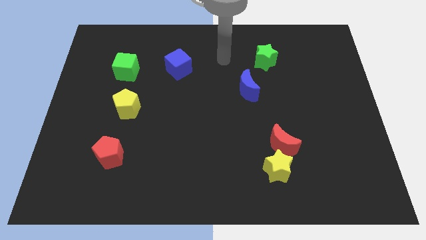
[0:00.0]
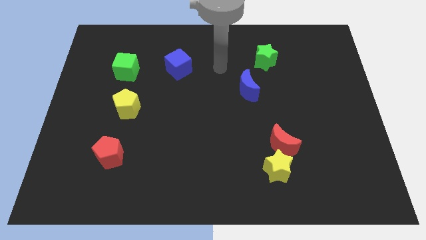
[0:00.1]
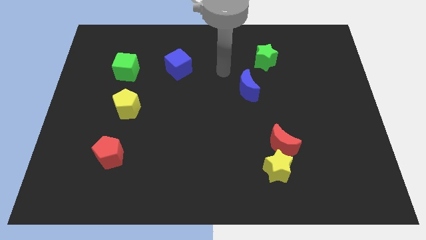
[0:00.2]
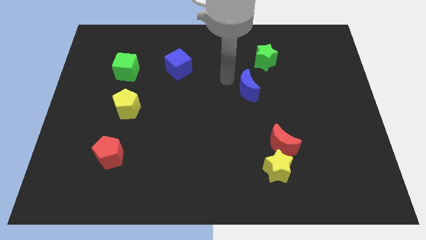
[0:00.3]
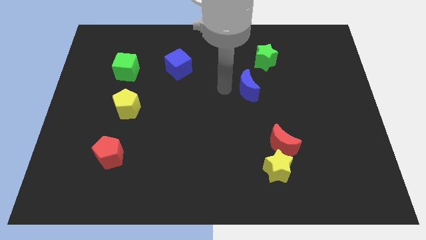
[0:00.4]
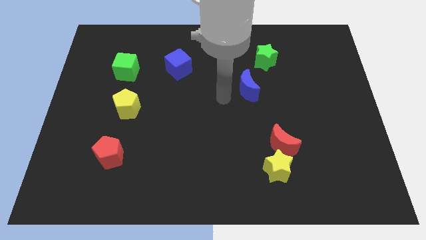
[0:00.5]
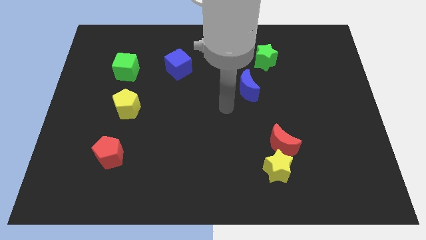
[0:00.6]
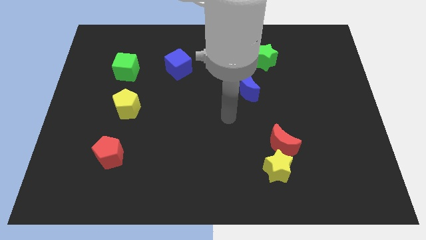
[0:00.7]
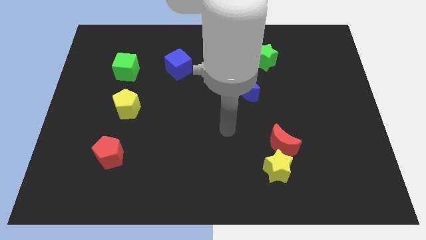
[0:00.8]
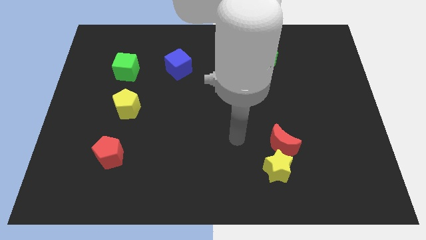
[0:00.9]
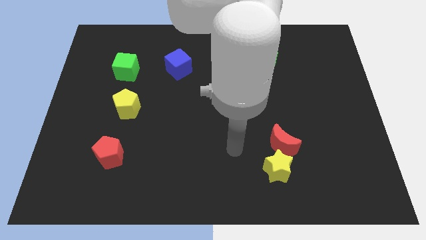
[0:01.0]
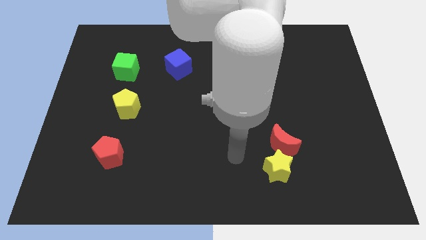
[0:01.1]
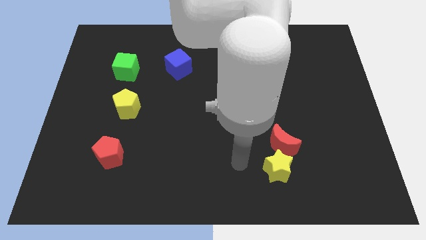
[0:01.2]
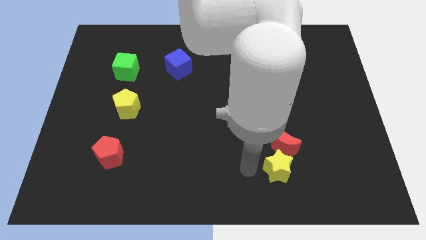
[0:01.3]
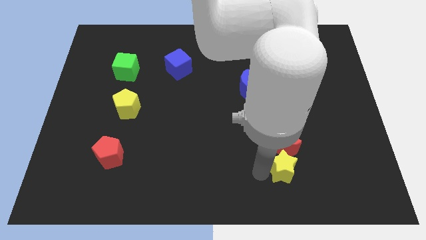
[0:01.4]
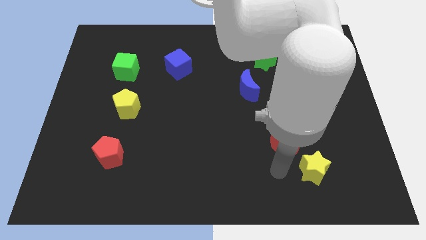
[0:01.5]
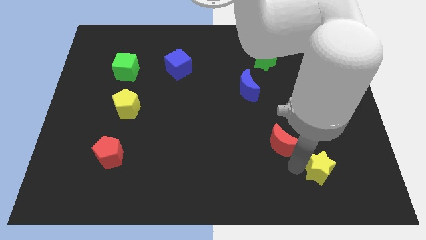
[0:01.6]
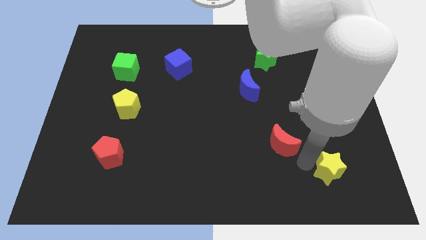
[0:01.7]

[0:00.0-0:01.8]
separate the red moon from the yellow star

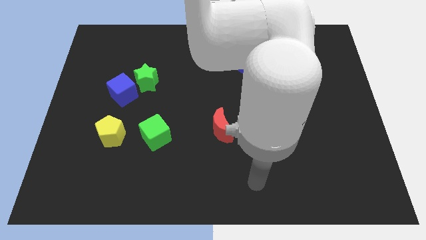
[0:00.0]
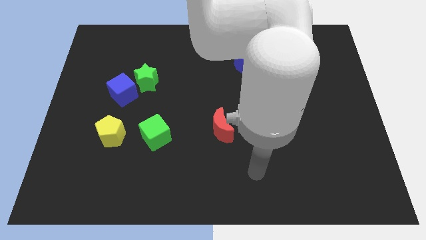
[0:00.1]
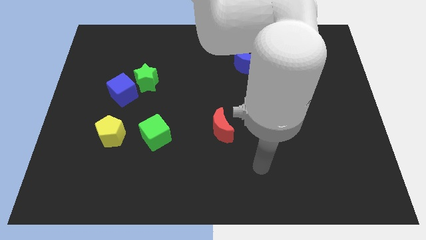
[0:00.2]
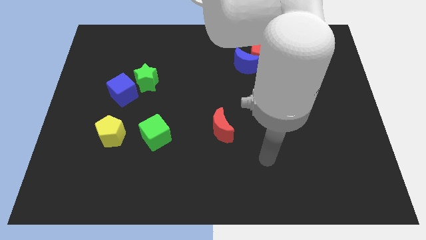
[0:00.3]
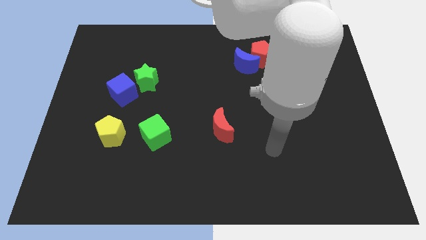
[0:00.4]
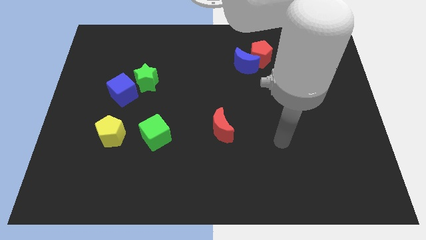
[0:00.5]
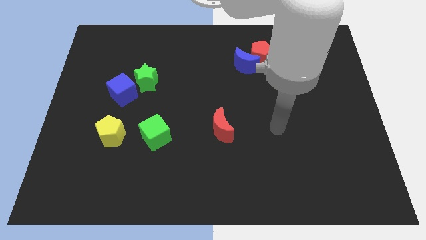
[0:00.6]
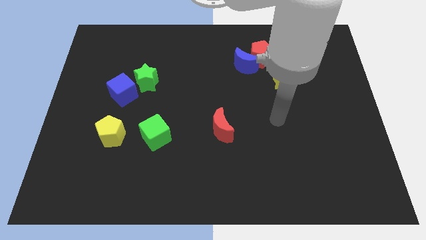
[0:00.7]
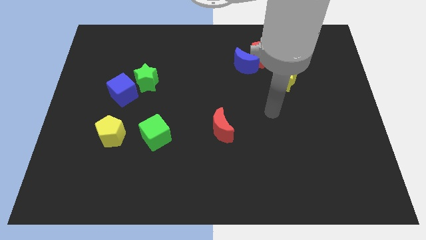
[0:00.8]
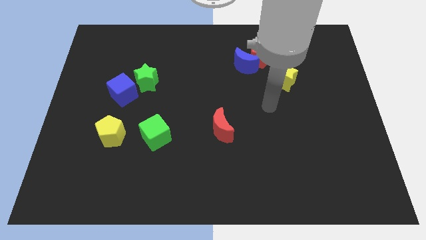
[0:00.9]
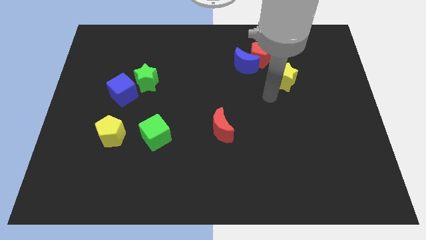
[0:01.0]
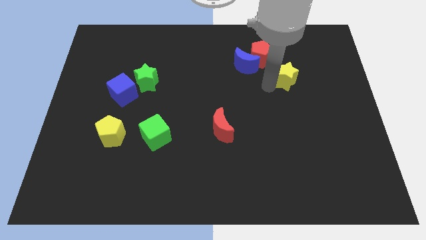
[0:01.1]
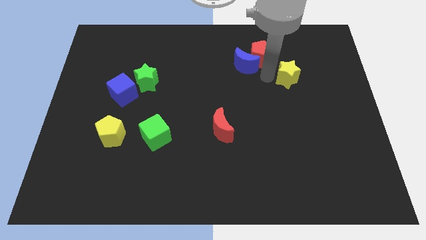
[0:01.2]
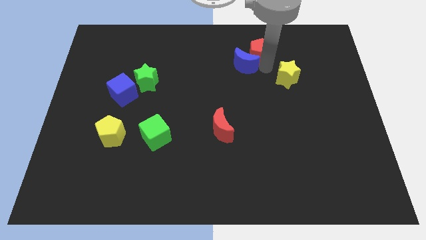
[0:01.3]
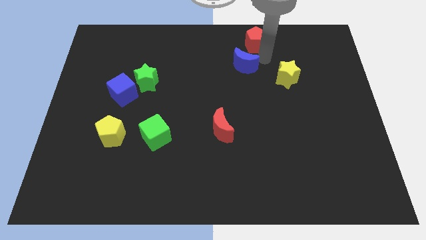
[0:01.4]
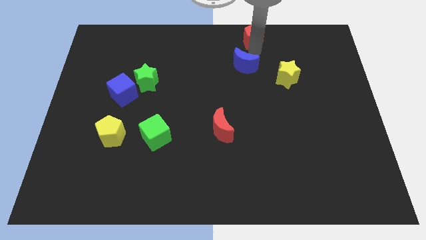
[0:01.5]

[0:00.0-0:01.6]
pull the blue moon apart from the red pentagon

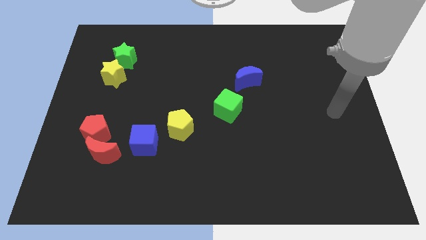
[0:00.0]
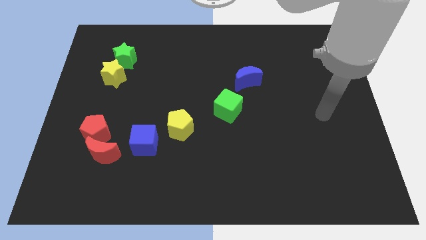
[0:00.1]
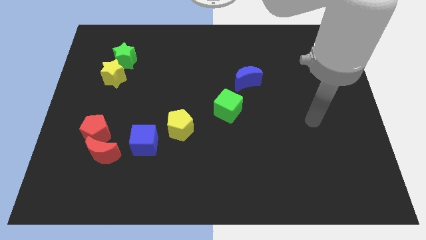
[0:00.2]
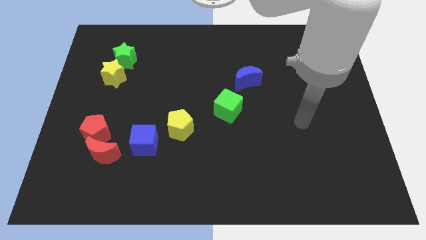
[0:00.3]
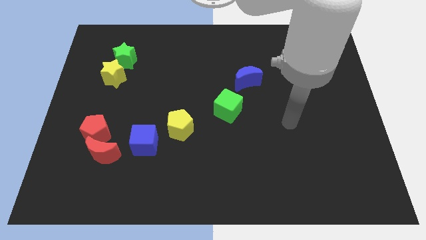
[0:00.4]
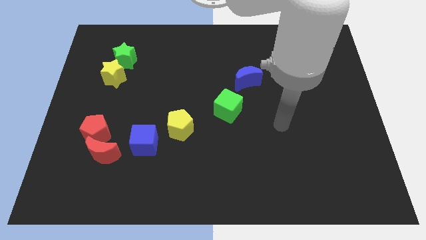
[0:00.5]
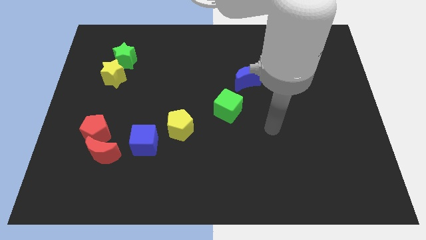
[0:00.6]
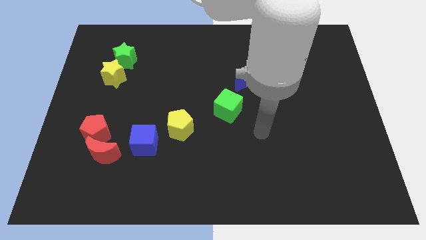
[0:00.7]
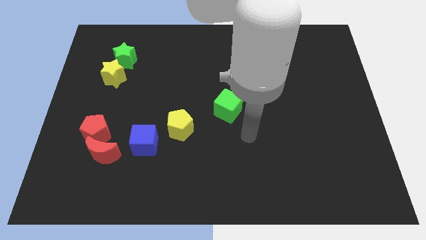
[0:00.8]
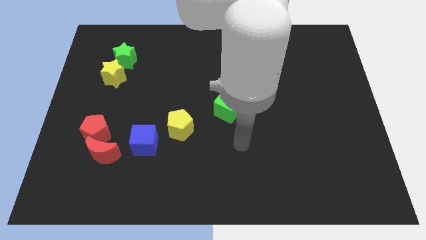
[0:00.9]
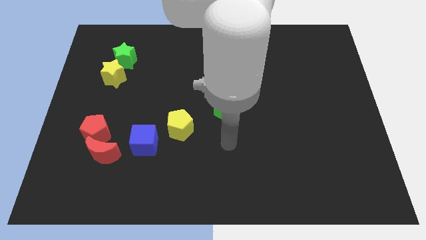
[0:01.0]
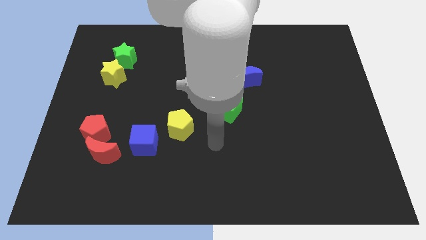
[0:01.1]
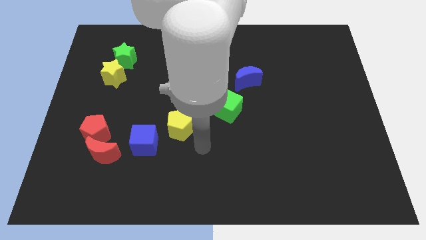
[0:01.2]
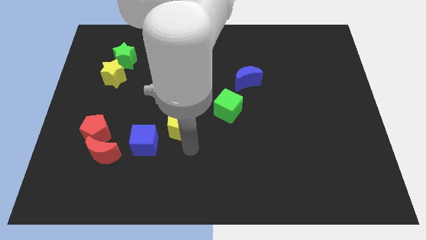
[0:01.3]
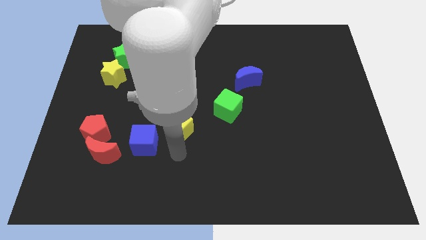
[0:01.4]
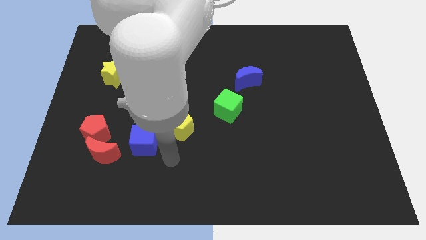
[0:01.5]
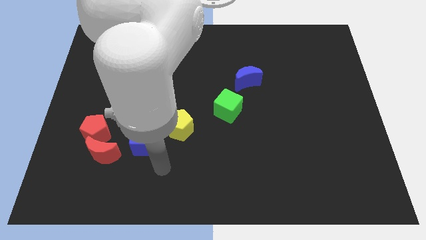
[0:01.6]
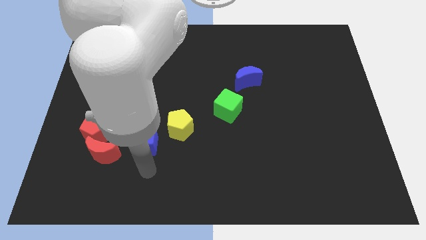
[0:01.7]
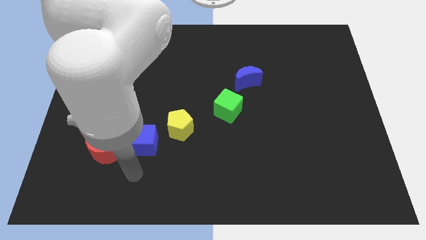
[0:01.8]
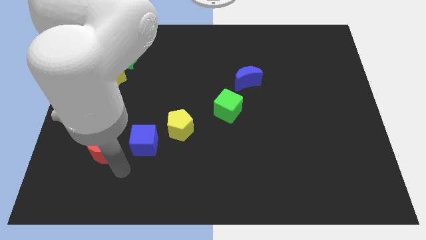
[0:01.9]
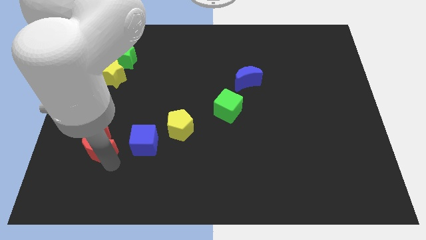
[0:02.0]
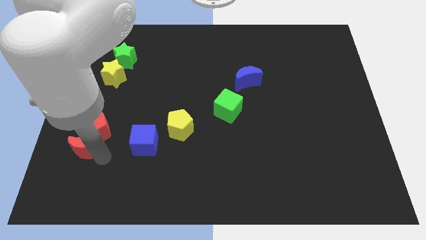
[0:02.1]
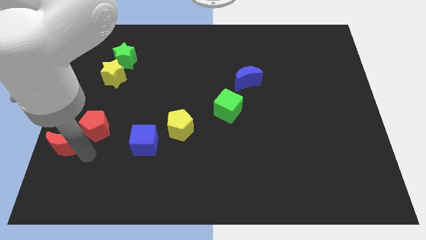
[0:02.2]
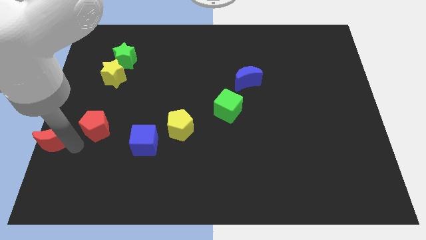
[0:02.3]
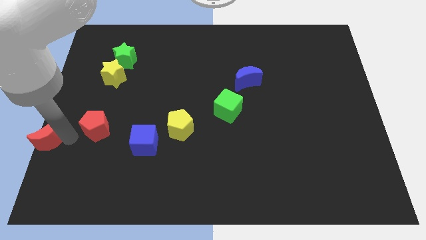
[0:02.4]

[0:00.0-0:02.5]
separate the red pentagon from the red moon

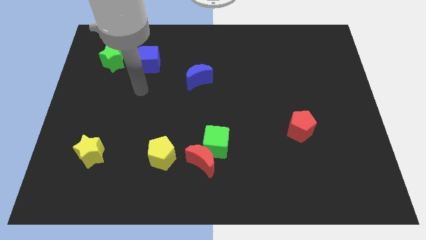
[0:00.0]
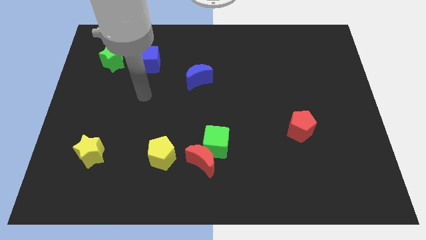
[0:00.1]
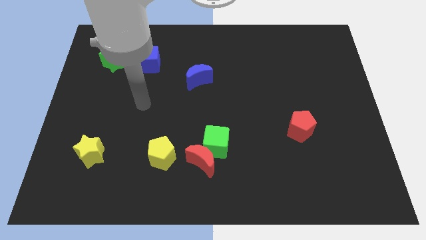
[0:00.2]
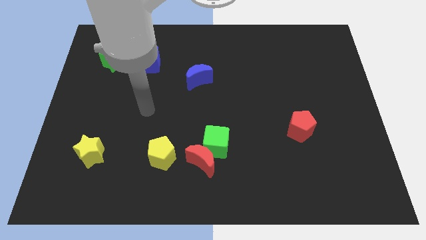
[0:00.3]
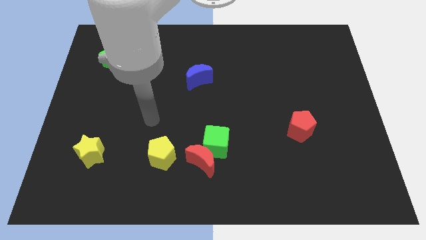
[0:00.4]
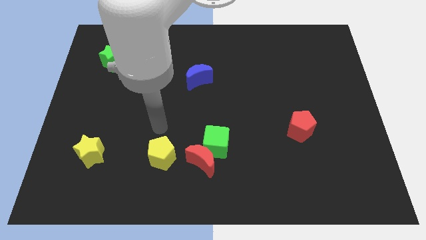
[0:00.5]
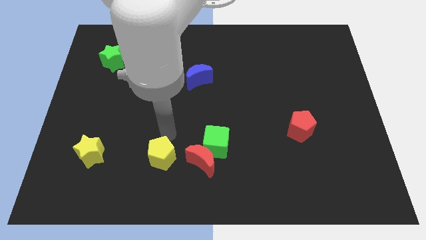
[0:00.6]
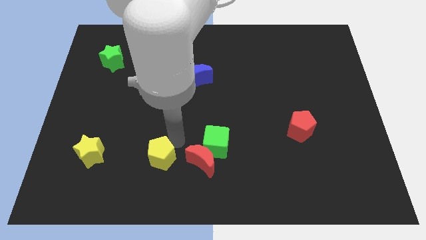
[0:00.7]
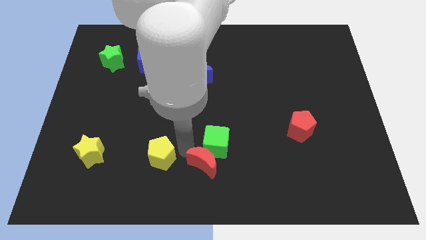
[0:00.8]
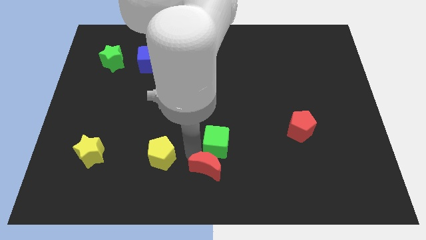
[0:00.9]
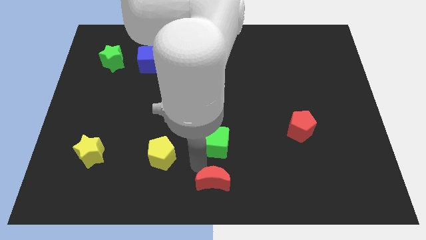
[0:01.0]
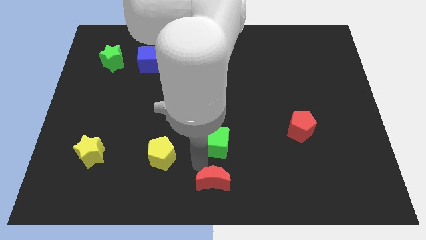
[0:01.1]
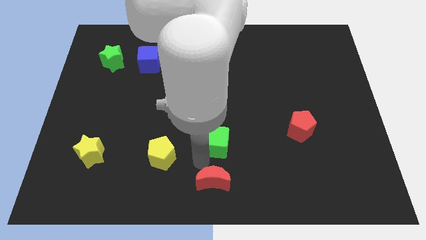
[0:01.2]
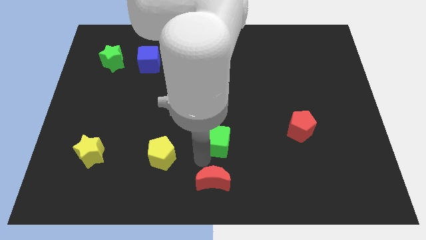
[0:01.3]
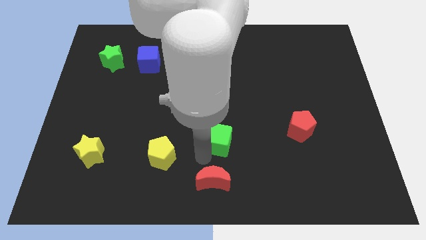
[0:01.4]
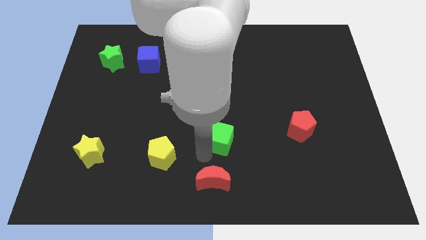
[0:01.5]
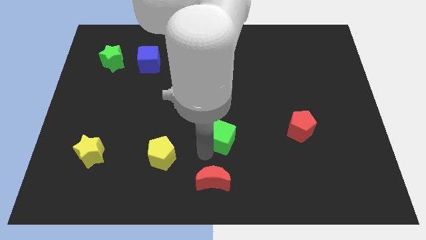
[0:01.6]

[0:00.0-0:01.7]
move the green cube away from the red moon

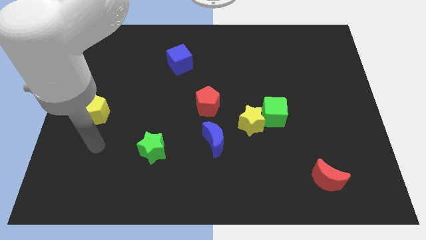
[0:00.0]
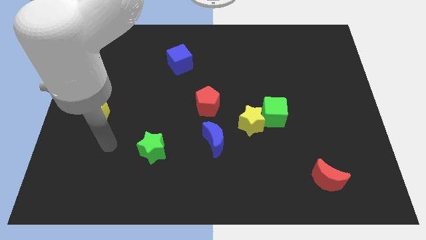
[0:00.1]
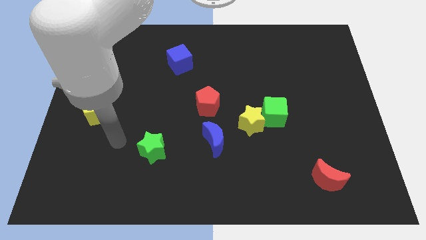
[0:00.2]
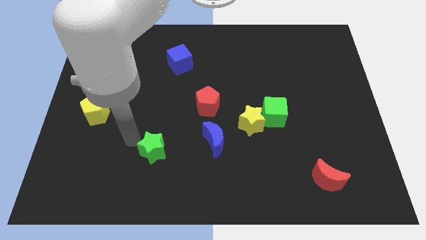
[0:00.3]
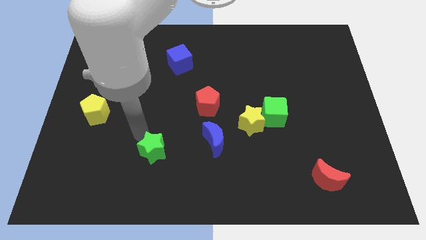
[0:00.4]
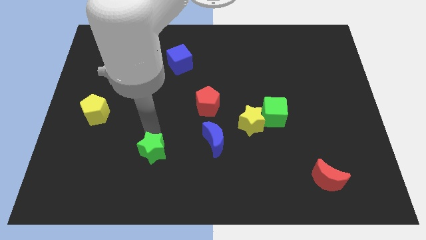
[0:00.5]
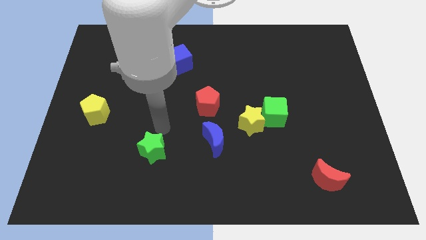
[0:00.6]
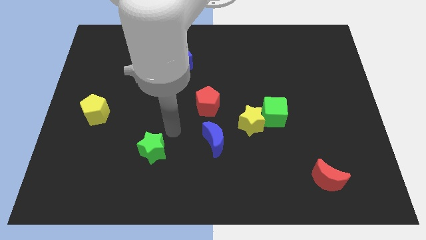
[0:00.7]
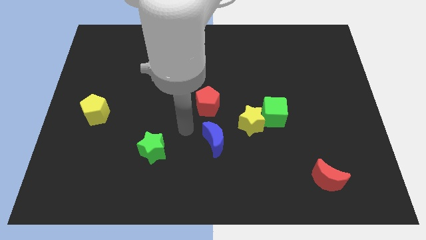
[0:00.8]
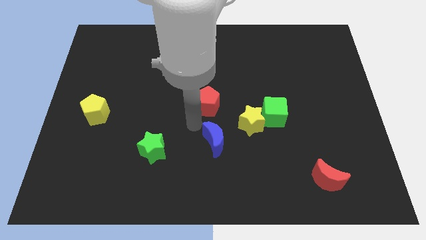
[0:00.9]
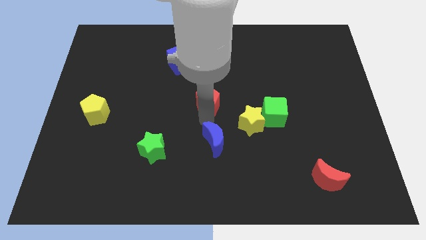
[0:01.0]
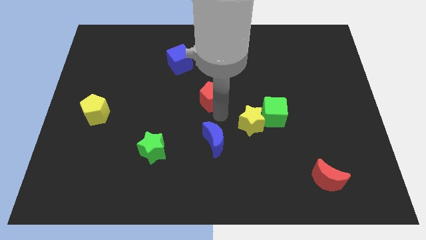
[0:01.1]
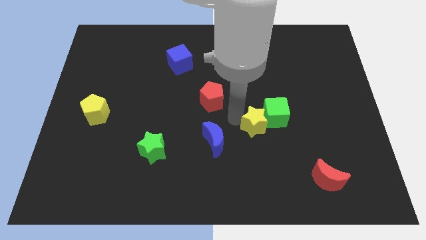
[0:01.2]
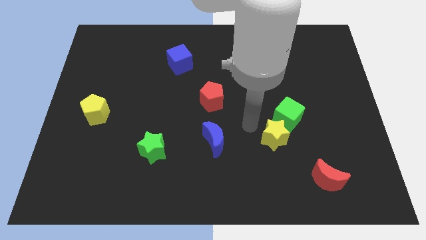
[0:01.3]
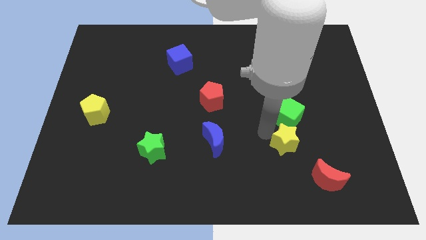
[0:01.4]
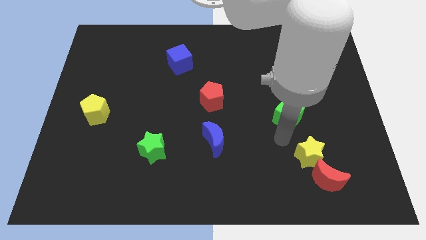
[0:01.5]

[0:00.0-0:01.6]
pull the green cube apart from the yellow star

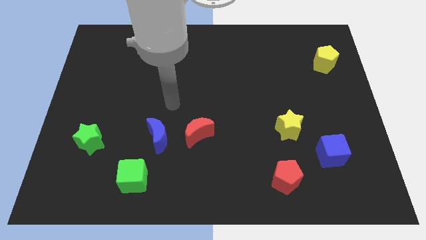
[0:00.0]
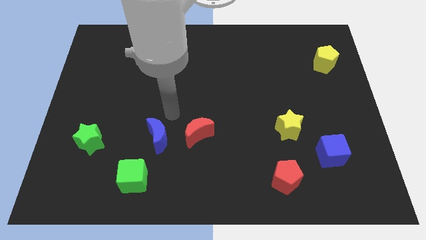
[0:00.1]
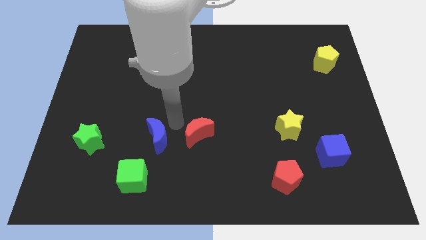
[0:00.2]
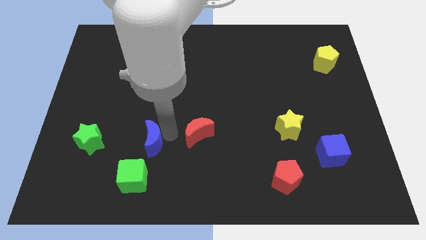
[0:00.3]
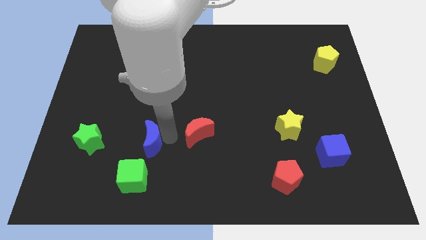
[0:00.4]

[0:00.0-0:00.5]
pull the red moon apart from the blue moon
